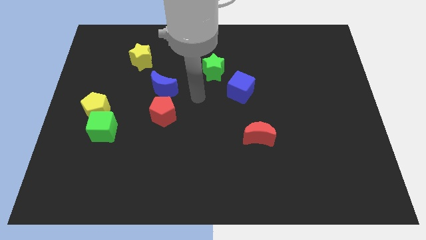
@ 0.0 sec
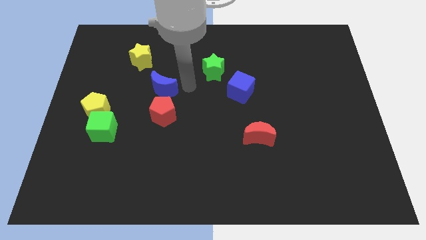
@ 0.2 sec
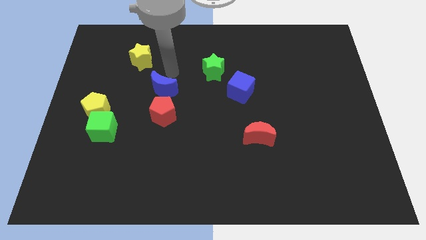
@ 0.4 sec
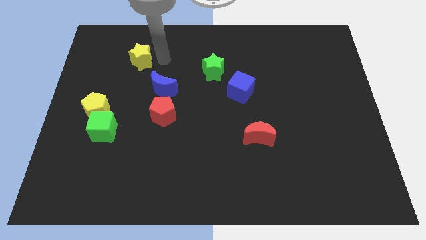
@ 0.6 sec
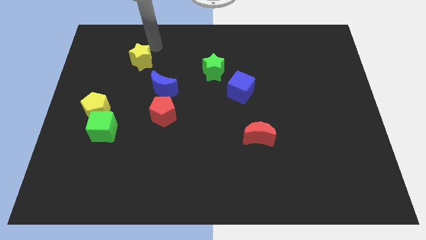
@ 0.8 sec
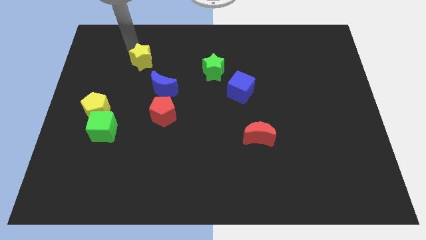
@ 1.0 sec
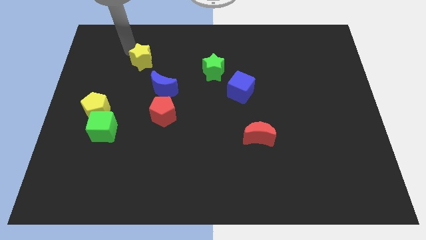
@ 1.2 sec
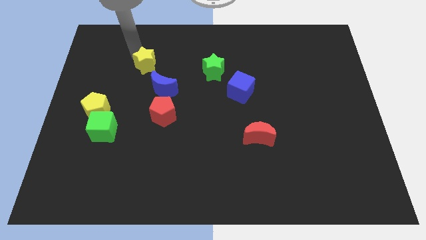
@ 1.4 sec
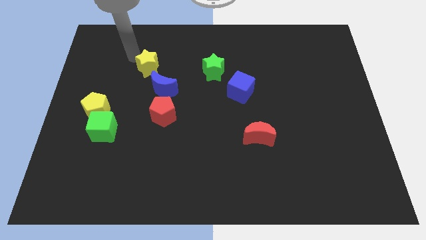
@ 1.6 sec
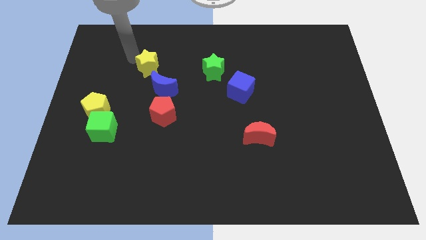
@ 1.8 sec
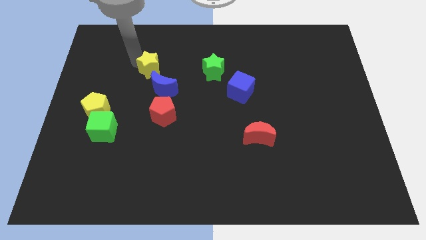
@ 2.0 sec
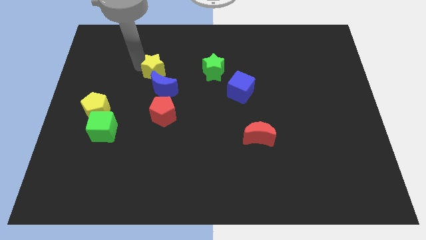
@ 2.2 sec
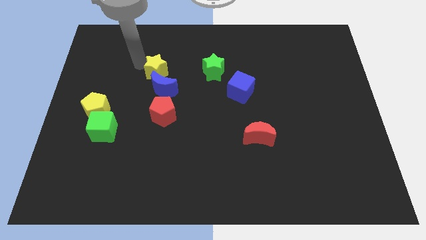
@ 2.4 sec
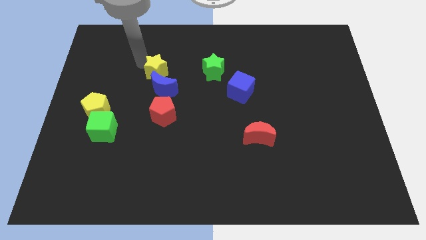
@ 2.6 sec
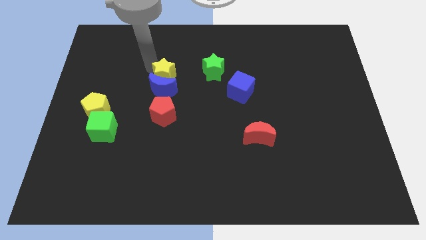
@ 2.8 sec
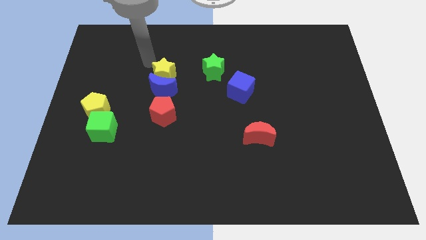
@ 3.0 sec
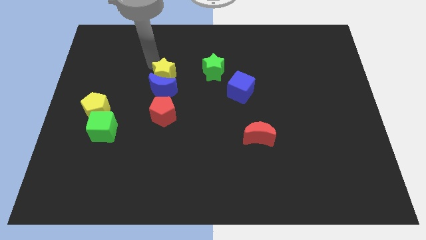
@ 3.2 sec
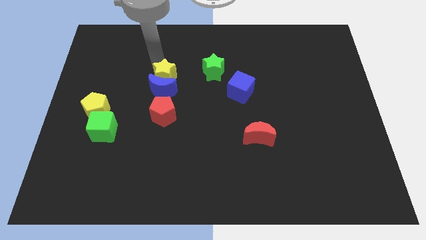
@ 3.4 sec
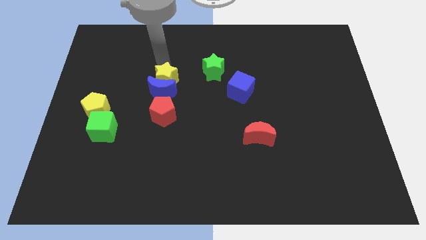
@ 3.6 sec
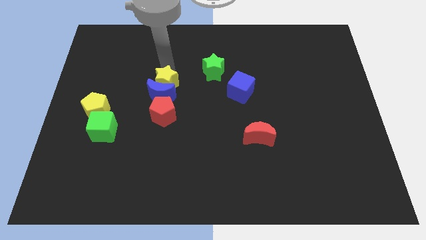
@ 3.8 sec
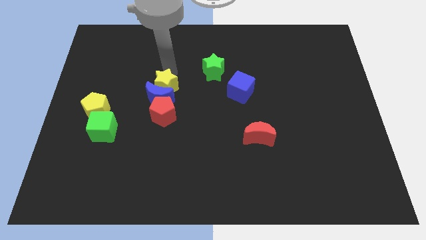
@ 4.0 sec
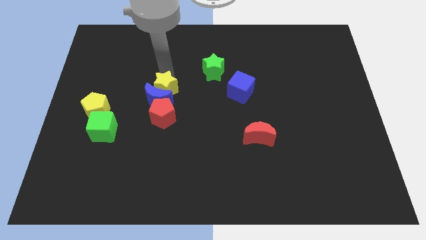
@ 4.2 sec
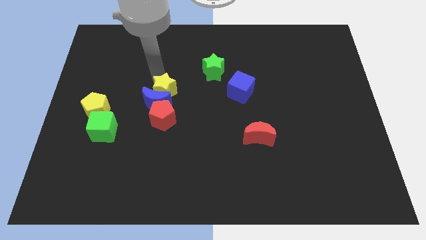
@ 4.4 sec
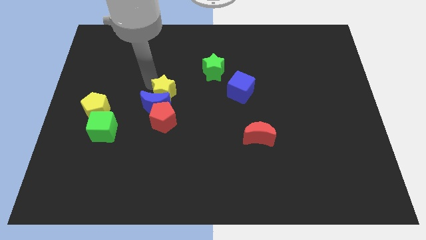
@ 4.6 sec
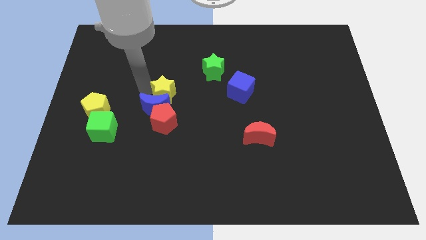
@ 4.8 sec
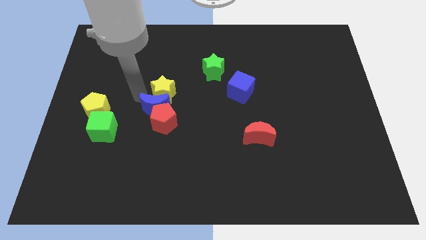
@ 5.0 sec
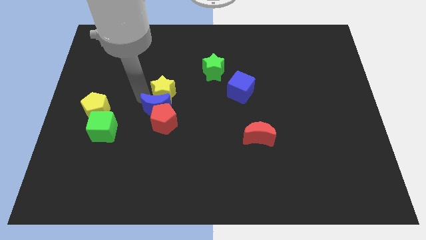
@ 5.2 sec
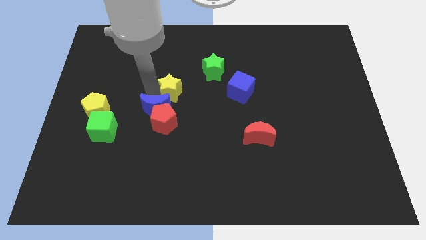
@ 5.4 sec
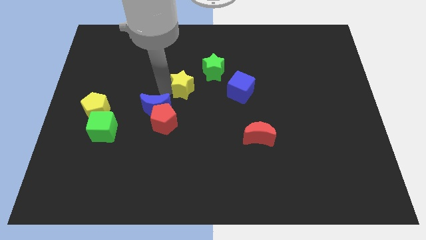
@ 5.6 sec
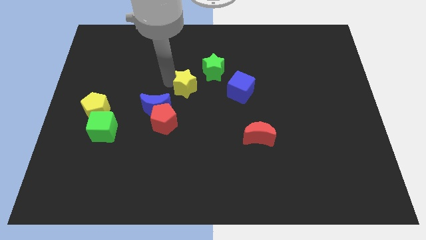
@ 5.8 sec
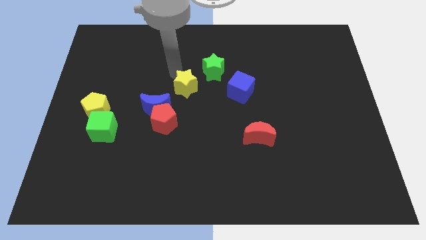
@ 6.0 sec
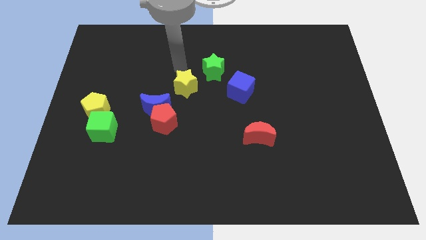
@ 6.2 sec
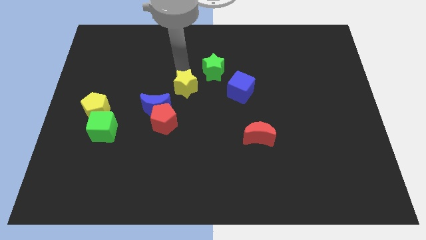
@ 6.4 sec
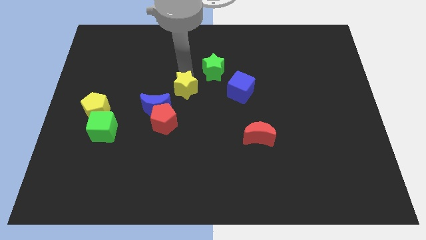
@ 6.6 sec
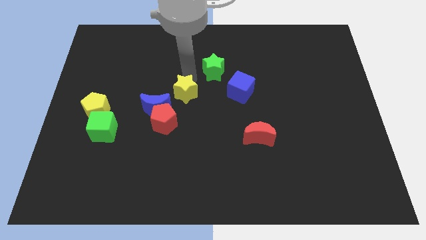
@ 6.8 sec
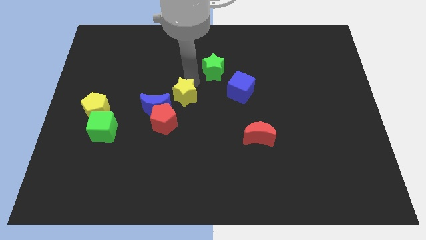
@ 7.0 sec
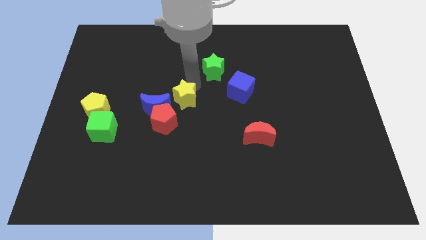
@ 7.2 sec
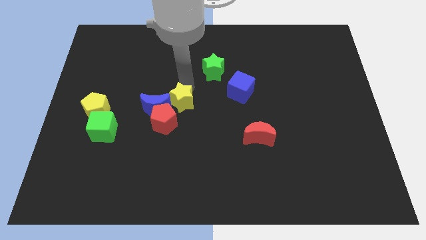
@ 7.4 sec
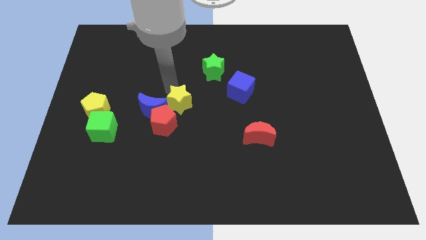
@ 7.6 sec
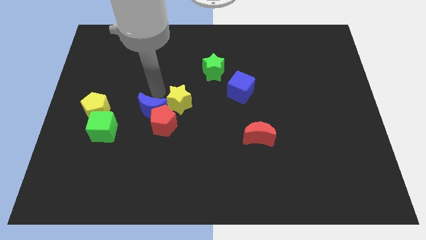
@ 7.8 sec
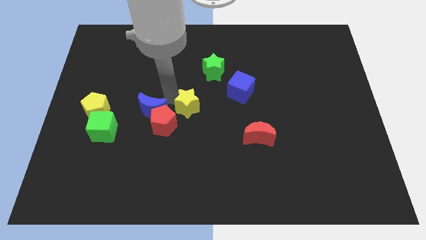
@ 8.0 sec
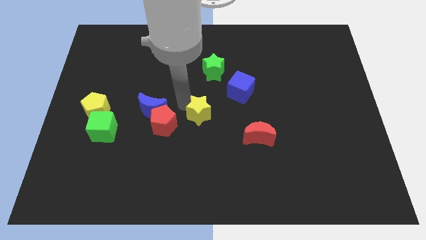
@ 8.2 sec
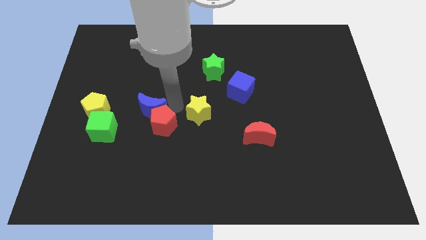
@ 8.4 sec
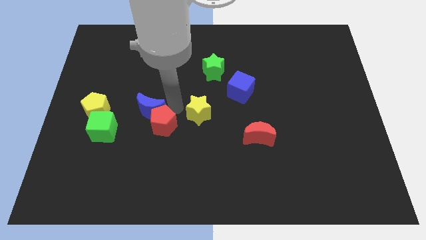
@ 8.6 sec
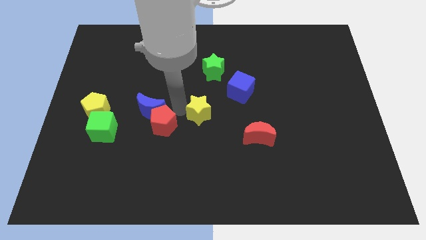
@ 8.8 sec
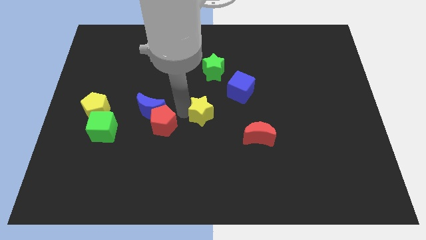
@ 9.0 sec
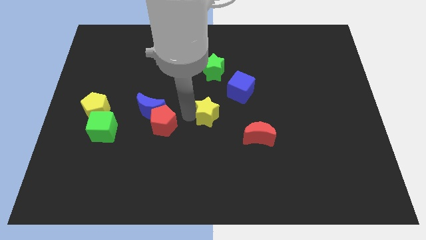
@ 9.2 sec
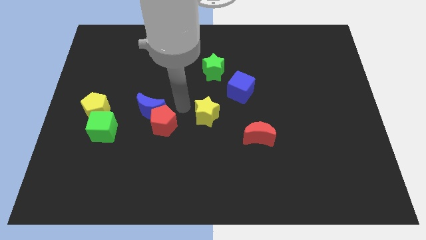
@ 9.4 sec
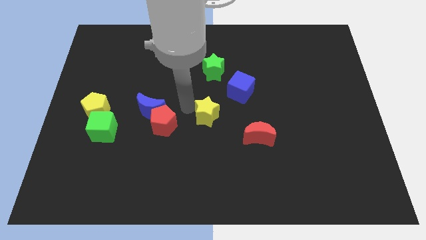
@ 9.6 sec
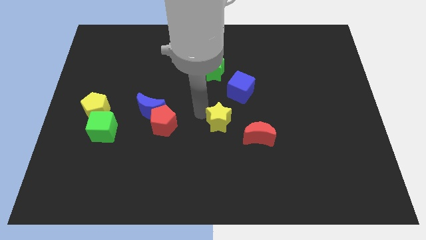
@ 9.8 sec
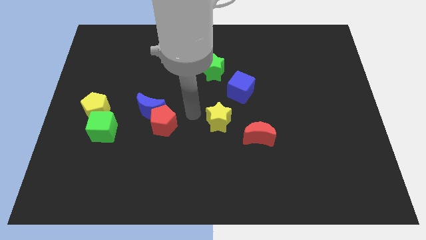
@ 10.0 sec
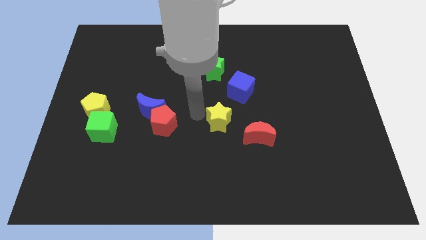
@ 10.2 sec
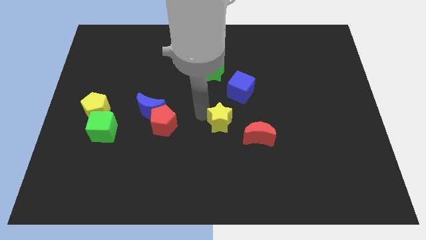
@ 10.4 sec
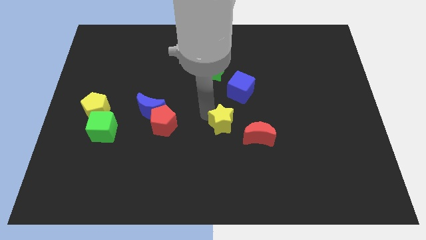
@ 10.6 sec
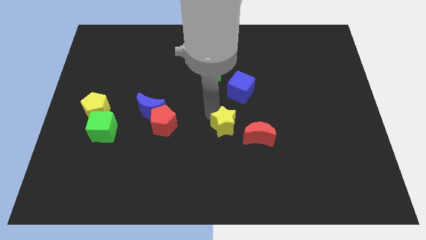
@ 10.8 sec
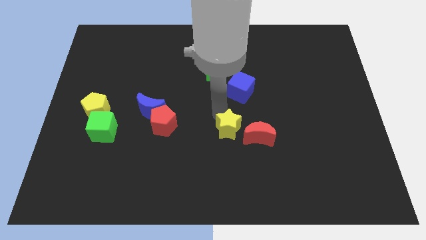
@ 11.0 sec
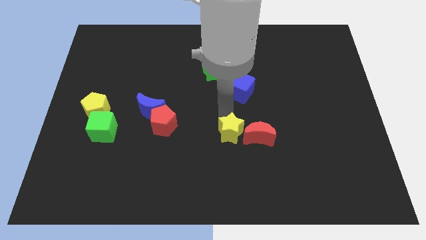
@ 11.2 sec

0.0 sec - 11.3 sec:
move the yellow star close to the red moon

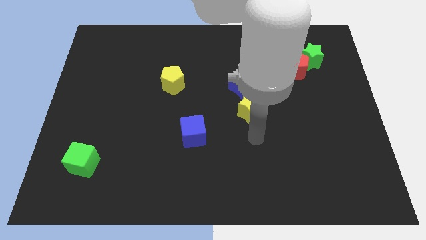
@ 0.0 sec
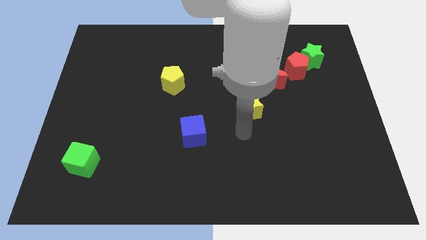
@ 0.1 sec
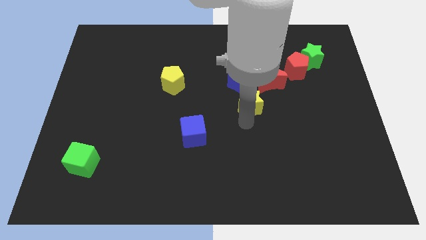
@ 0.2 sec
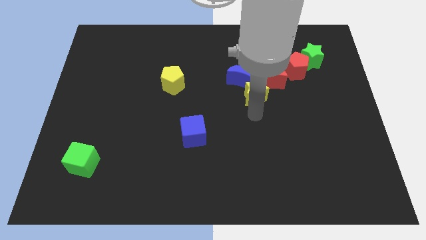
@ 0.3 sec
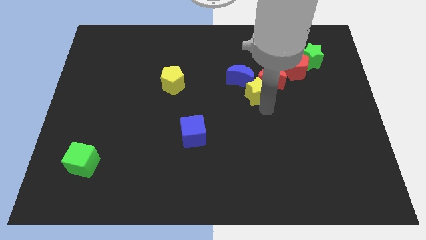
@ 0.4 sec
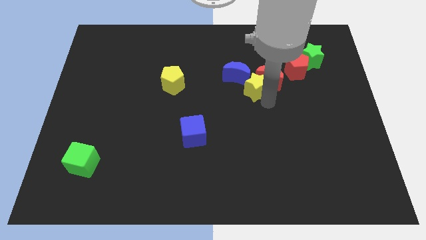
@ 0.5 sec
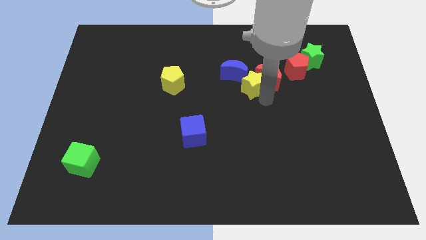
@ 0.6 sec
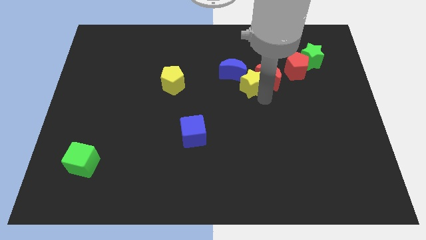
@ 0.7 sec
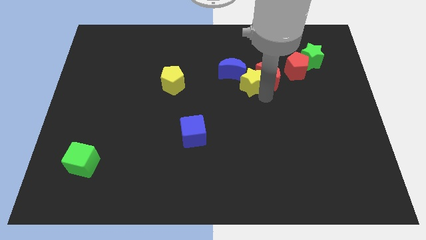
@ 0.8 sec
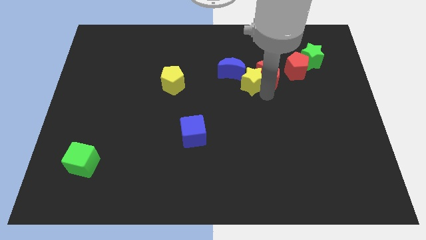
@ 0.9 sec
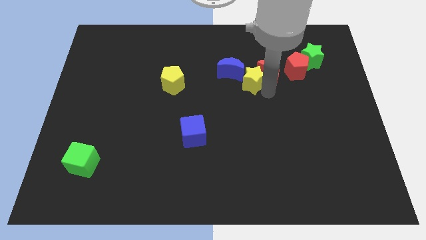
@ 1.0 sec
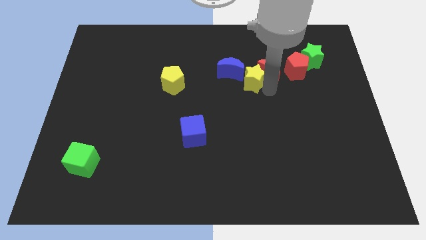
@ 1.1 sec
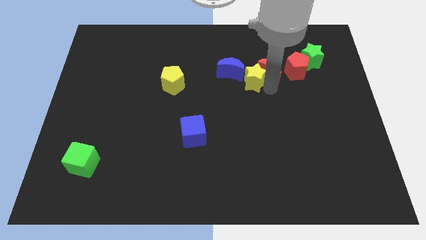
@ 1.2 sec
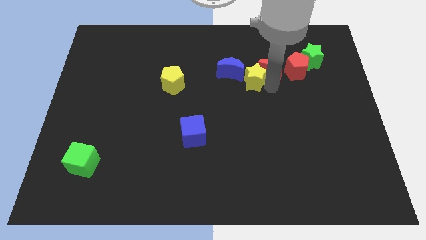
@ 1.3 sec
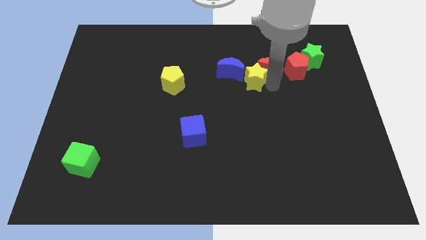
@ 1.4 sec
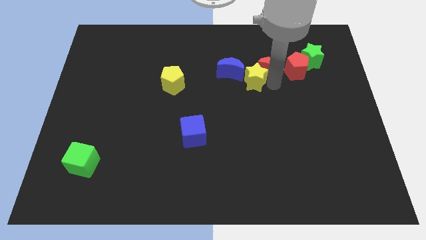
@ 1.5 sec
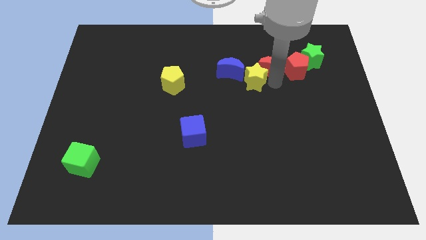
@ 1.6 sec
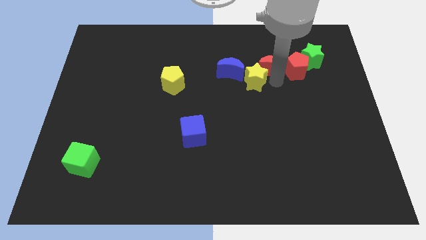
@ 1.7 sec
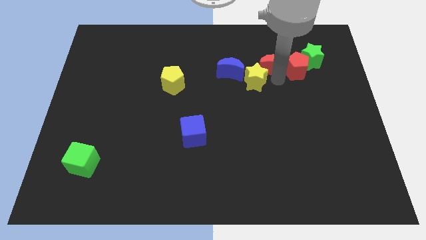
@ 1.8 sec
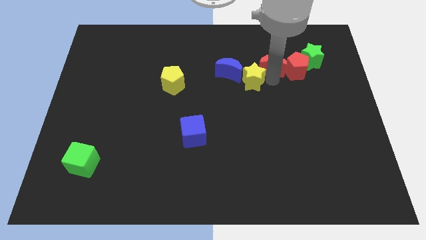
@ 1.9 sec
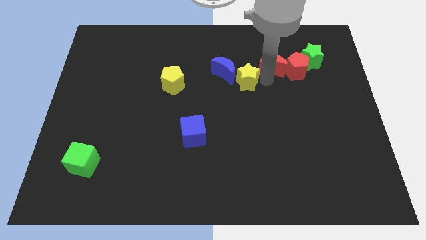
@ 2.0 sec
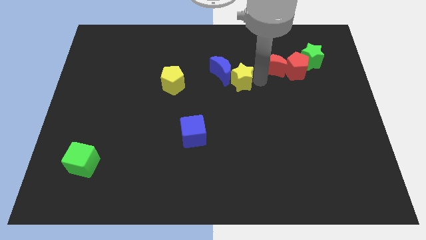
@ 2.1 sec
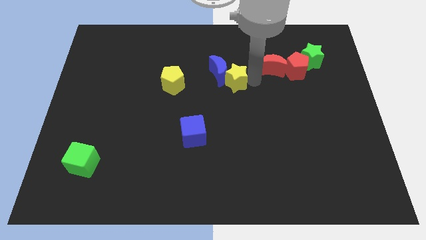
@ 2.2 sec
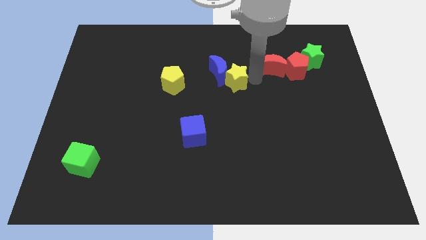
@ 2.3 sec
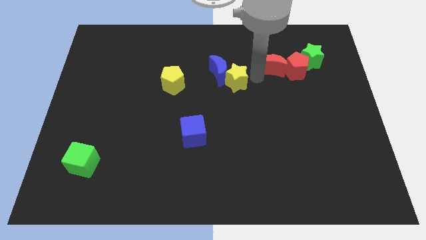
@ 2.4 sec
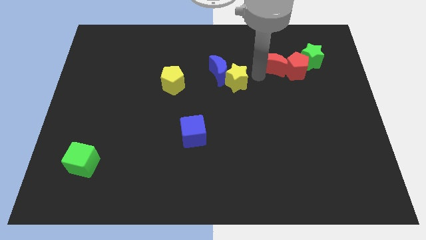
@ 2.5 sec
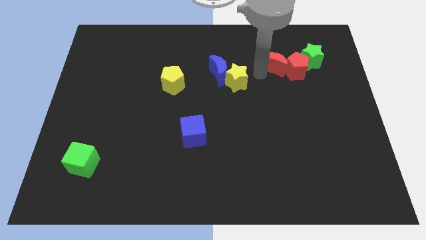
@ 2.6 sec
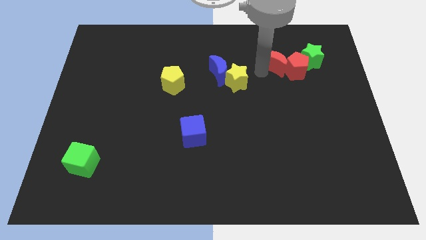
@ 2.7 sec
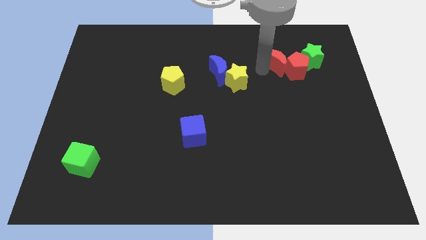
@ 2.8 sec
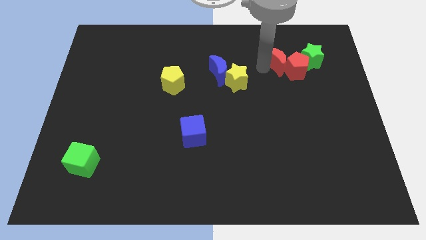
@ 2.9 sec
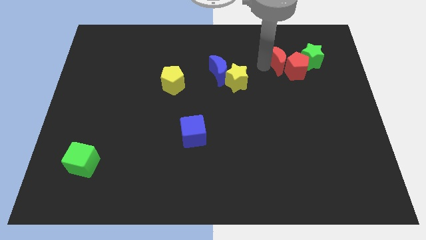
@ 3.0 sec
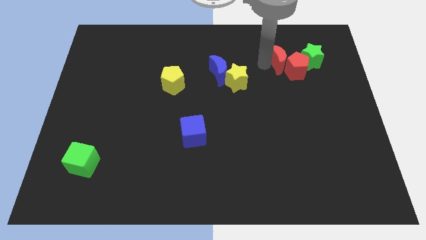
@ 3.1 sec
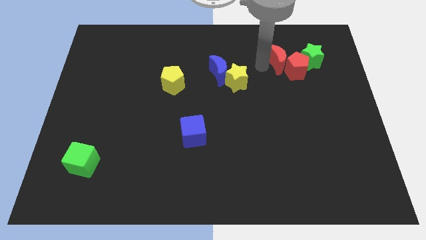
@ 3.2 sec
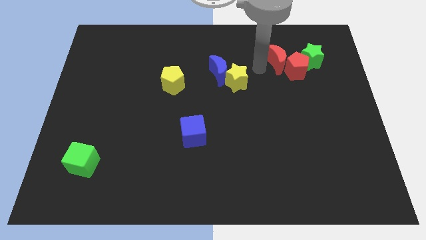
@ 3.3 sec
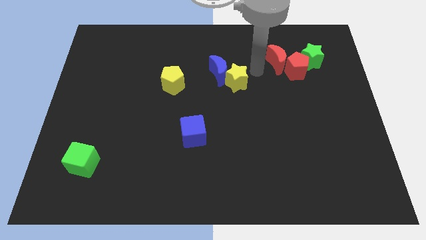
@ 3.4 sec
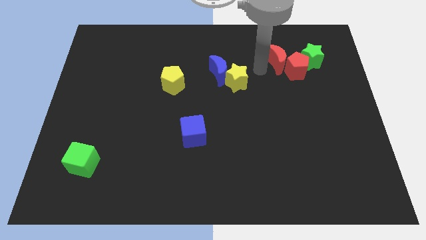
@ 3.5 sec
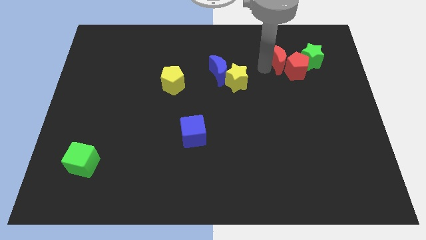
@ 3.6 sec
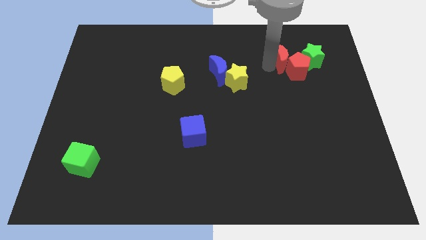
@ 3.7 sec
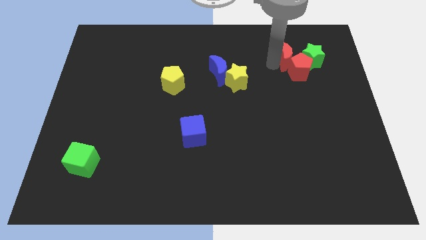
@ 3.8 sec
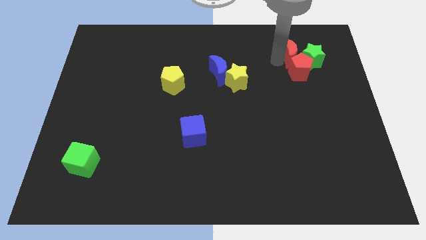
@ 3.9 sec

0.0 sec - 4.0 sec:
move the red moon close to the green star
